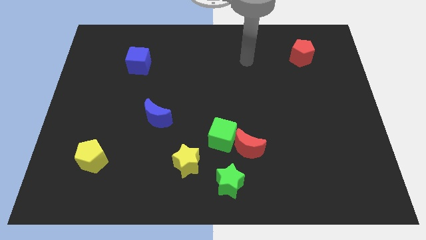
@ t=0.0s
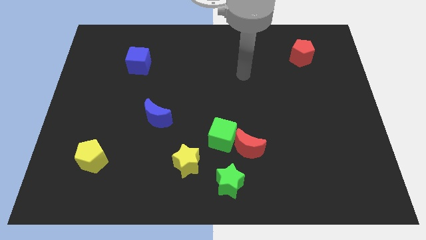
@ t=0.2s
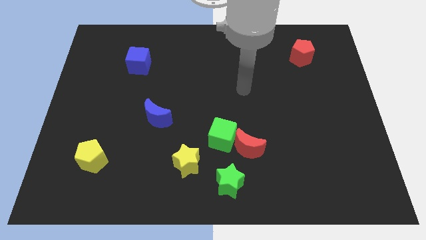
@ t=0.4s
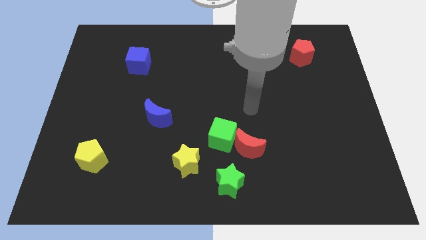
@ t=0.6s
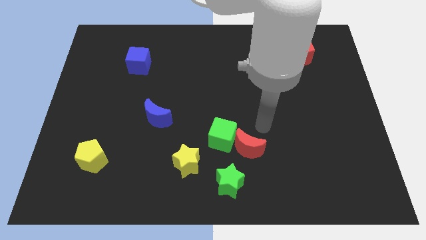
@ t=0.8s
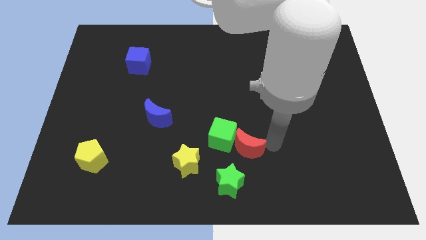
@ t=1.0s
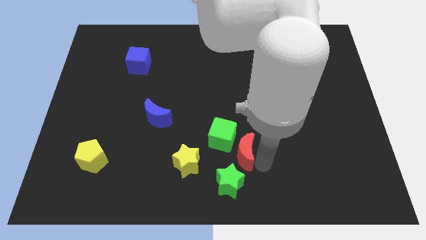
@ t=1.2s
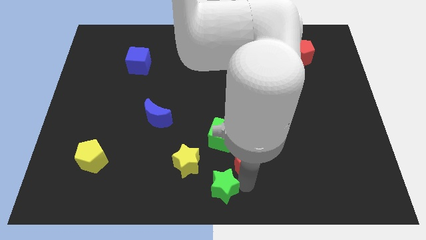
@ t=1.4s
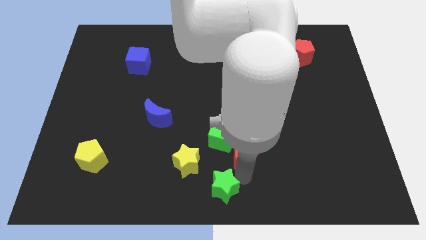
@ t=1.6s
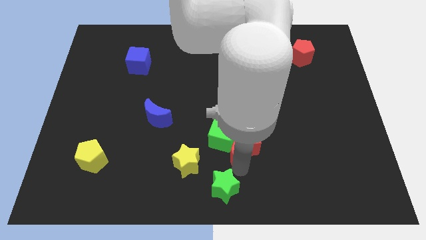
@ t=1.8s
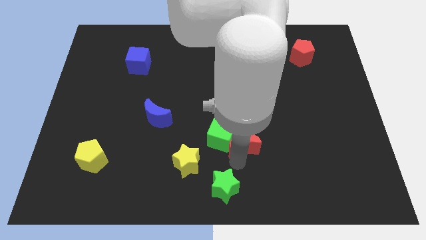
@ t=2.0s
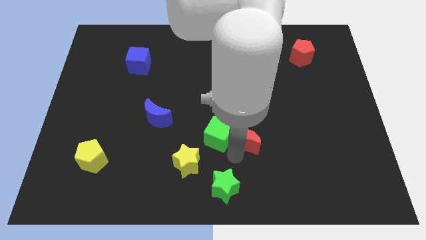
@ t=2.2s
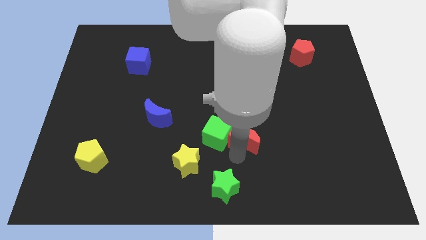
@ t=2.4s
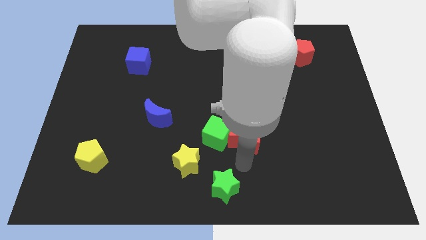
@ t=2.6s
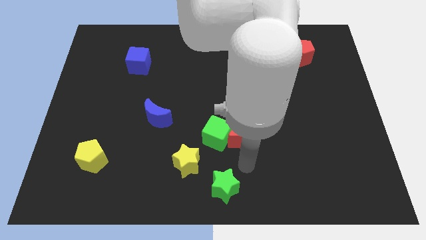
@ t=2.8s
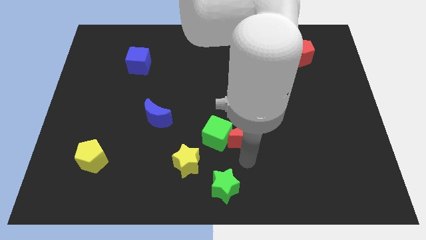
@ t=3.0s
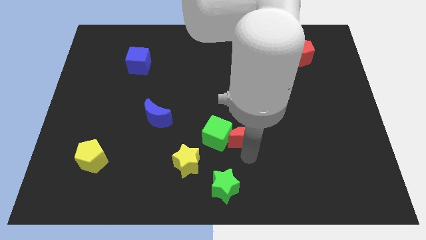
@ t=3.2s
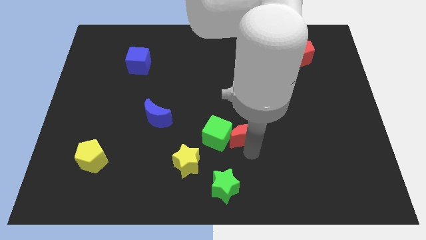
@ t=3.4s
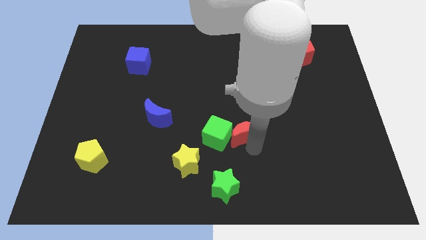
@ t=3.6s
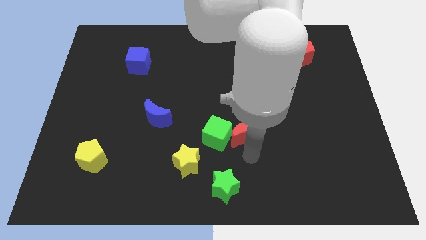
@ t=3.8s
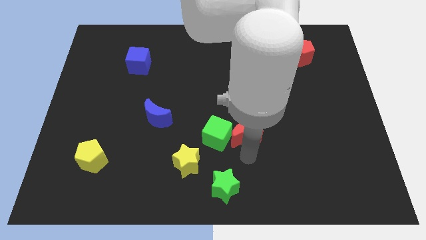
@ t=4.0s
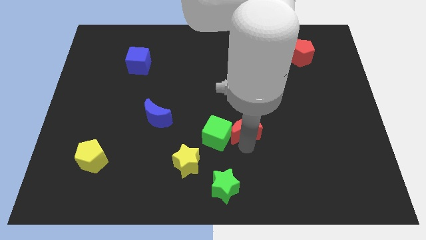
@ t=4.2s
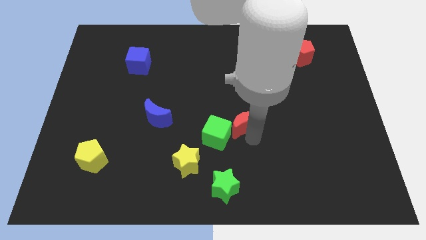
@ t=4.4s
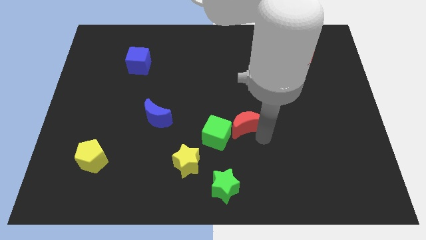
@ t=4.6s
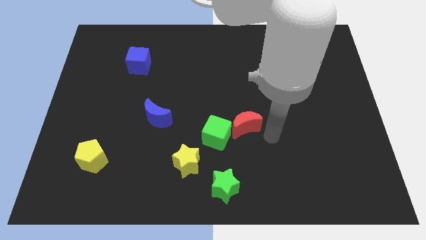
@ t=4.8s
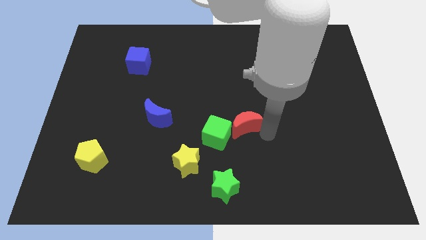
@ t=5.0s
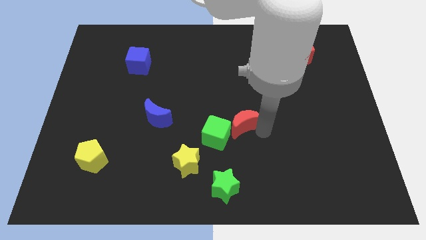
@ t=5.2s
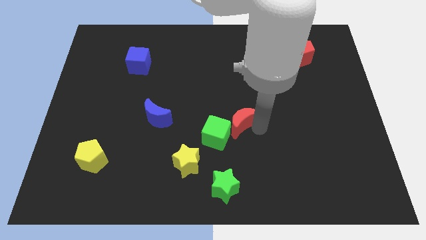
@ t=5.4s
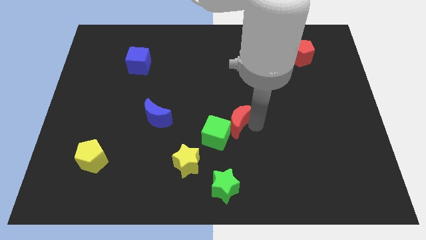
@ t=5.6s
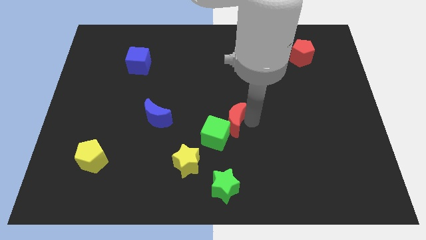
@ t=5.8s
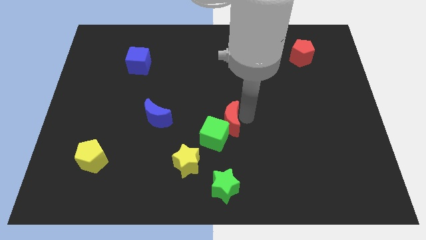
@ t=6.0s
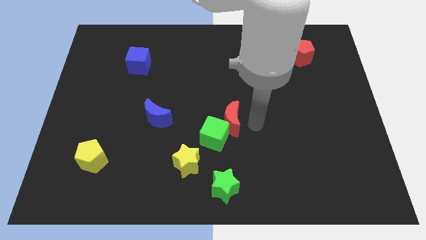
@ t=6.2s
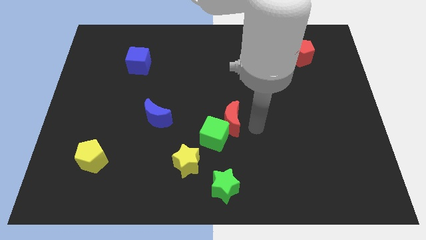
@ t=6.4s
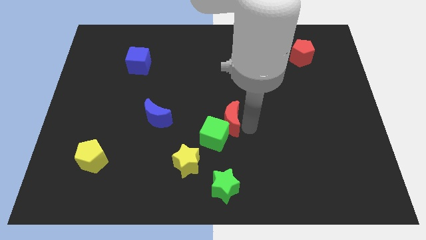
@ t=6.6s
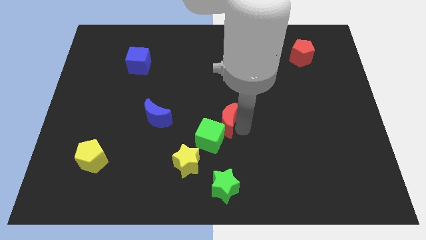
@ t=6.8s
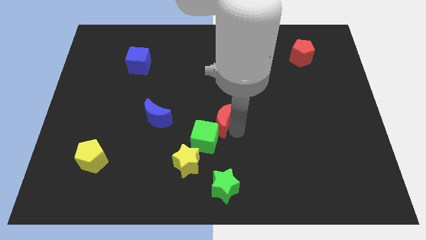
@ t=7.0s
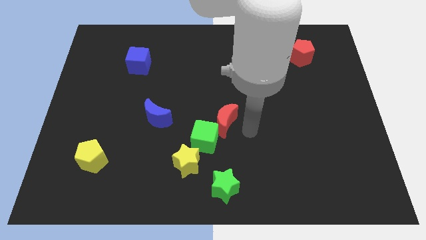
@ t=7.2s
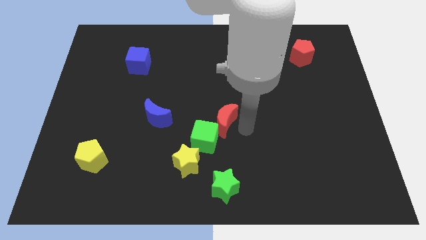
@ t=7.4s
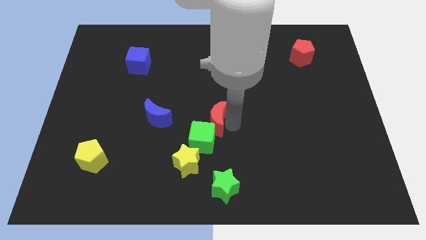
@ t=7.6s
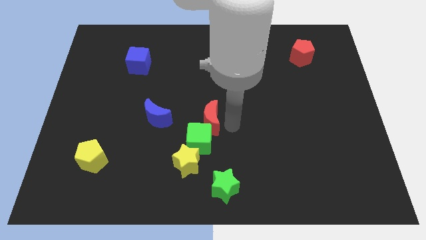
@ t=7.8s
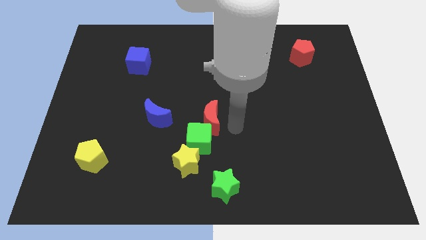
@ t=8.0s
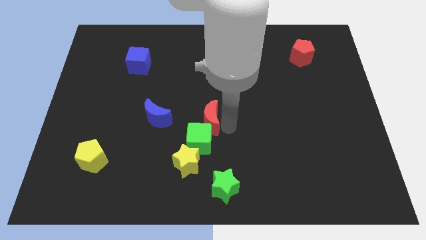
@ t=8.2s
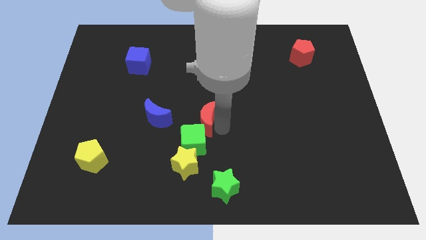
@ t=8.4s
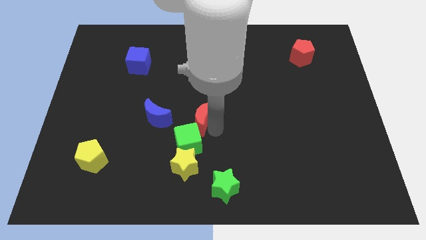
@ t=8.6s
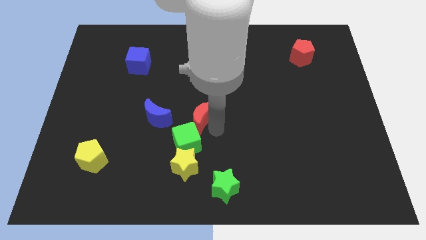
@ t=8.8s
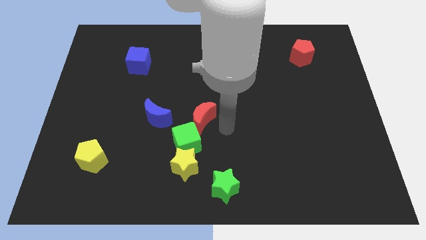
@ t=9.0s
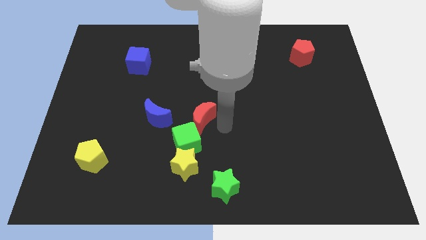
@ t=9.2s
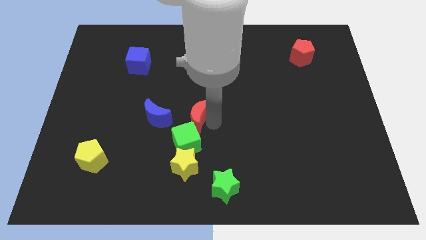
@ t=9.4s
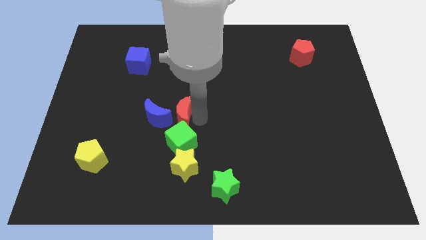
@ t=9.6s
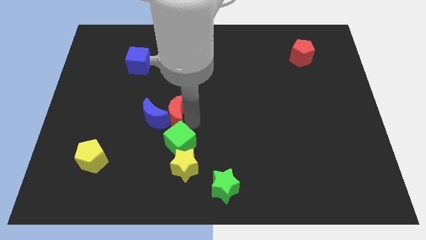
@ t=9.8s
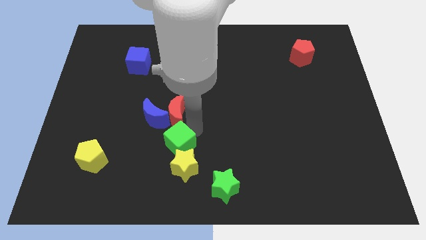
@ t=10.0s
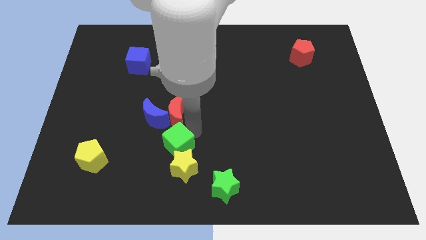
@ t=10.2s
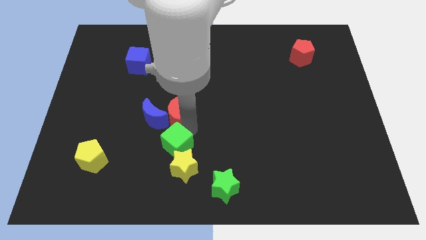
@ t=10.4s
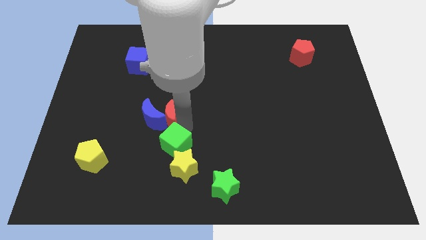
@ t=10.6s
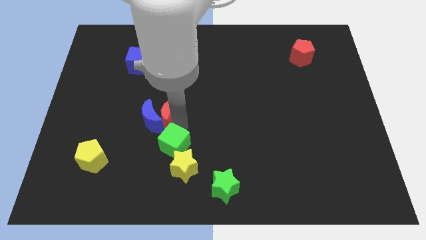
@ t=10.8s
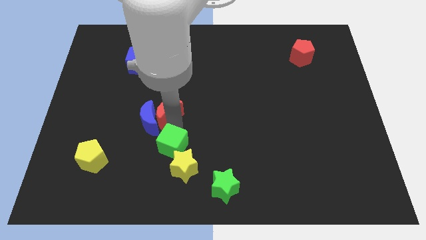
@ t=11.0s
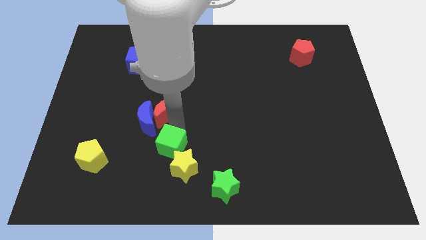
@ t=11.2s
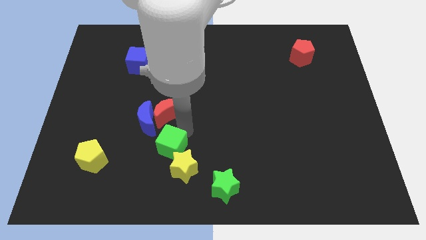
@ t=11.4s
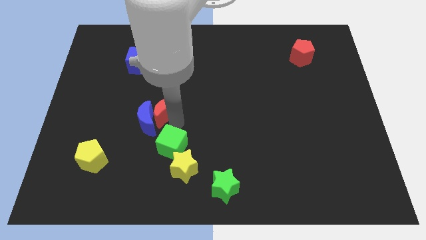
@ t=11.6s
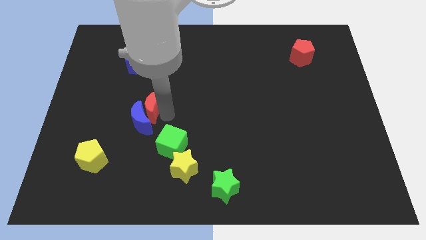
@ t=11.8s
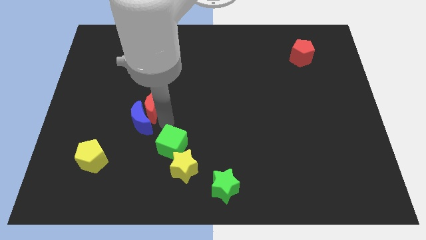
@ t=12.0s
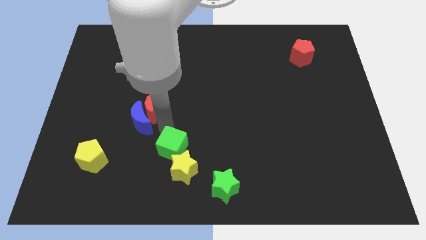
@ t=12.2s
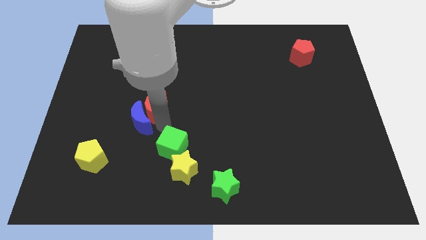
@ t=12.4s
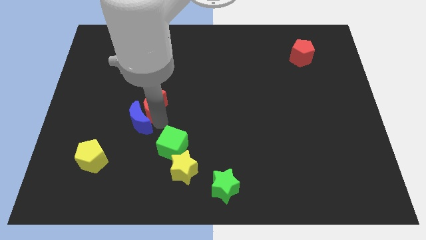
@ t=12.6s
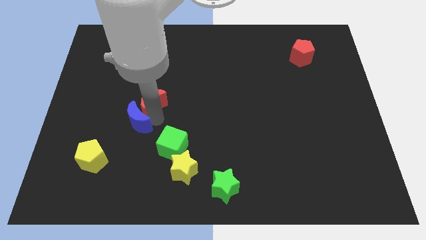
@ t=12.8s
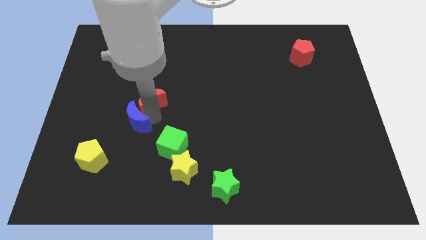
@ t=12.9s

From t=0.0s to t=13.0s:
slide the red moon to the bottom of the blue cube
